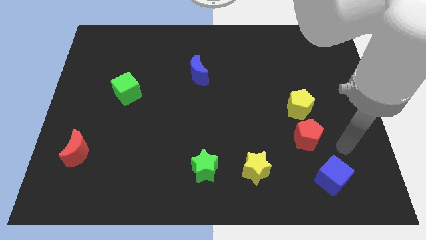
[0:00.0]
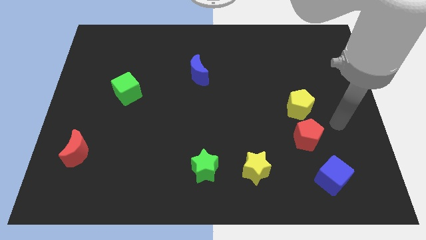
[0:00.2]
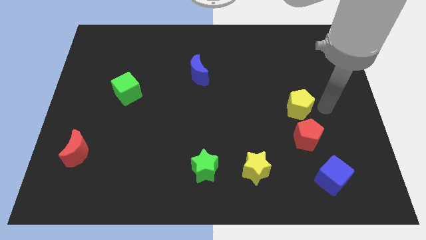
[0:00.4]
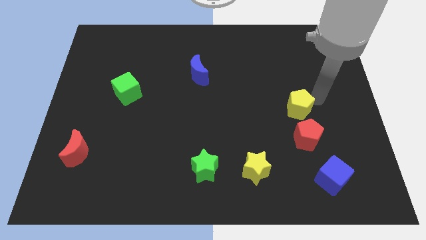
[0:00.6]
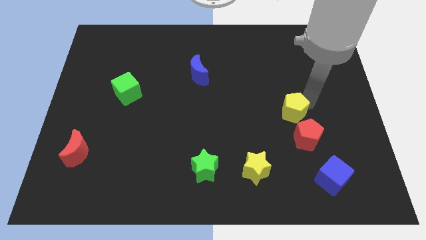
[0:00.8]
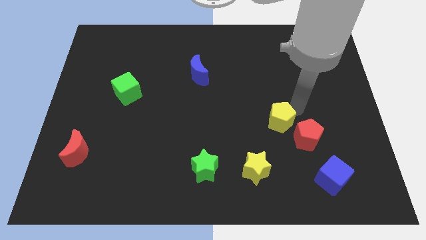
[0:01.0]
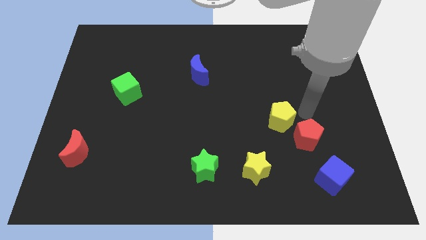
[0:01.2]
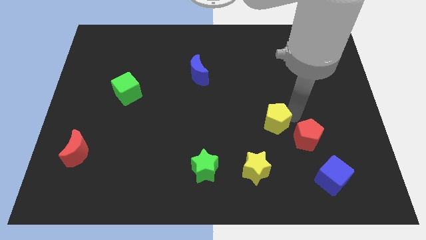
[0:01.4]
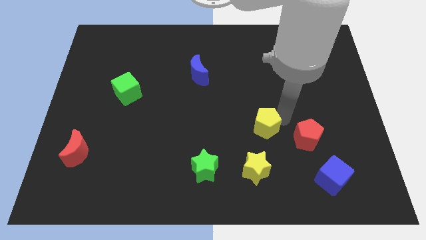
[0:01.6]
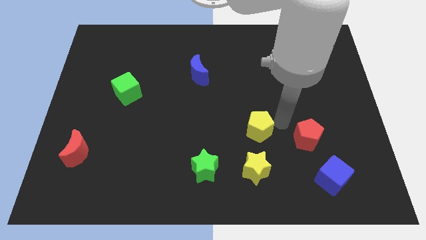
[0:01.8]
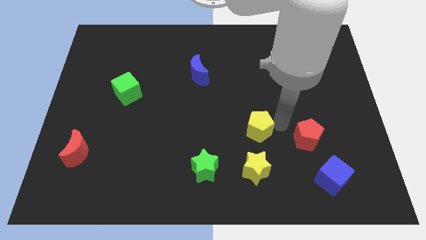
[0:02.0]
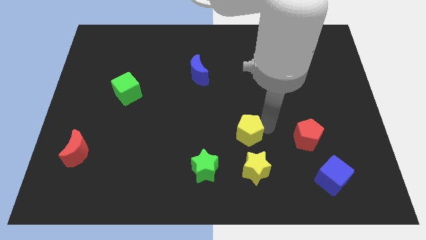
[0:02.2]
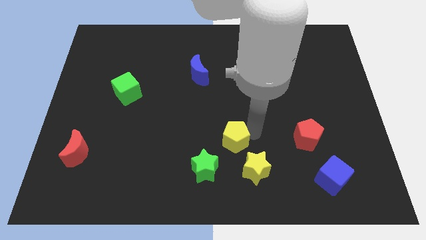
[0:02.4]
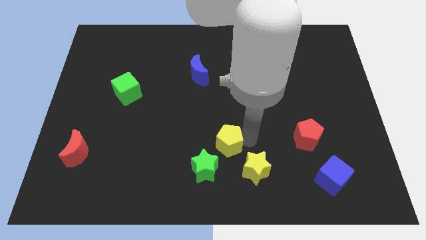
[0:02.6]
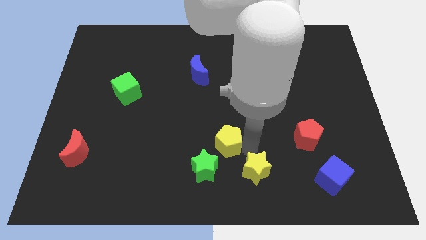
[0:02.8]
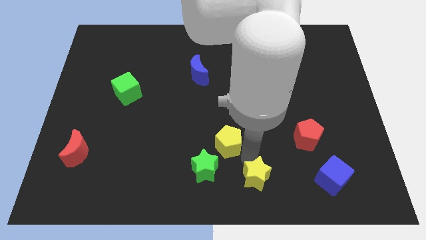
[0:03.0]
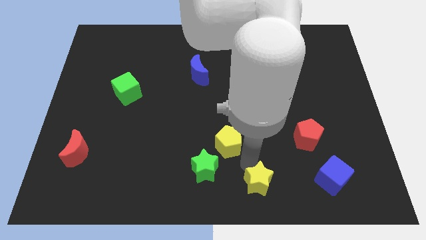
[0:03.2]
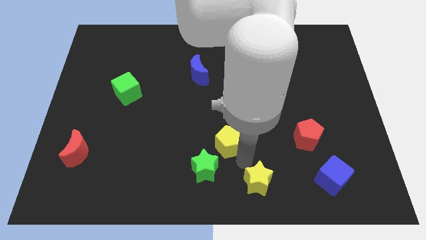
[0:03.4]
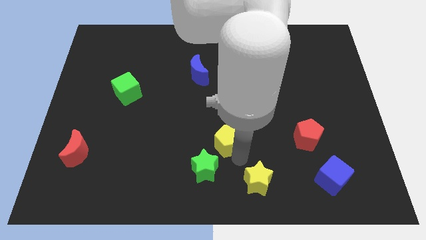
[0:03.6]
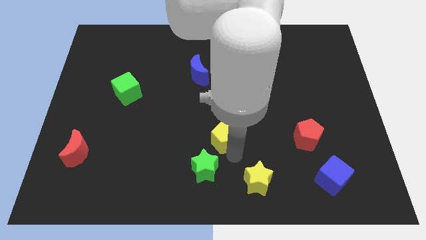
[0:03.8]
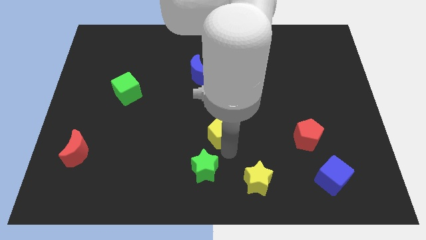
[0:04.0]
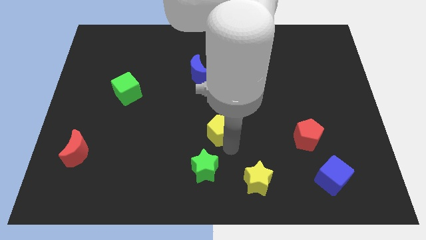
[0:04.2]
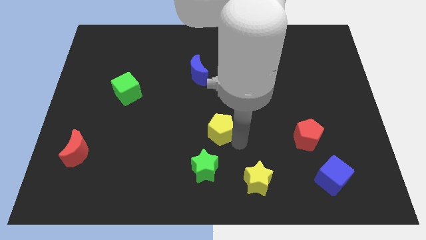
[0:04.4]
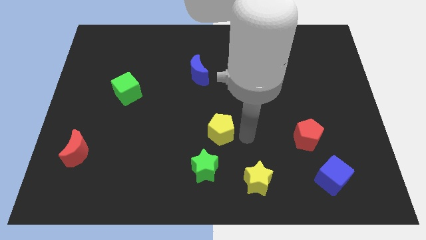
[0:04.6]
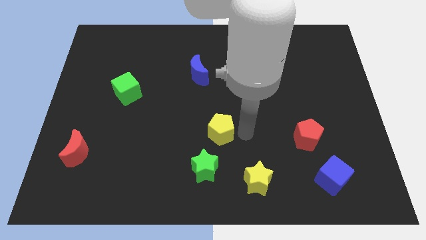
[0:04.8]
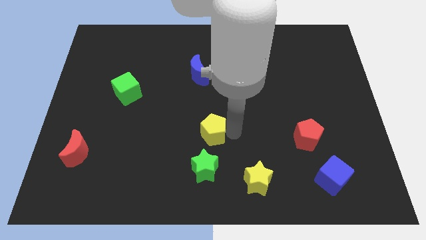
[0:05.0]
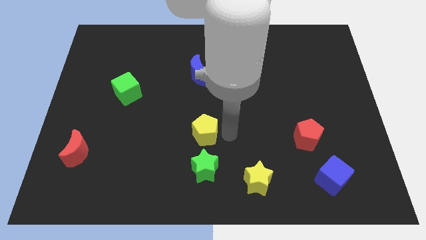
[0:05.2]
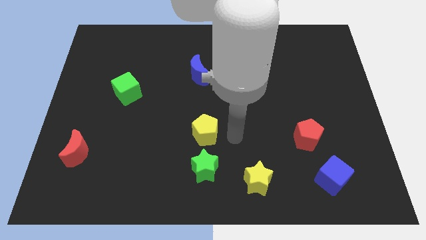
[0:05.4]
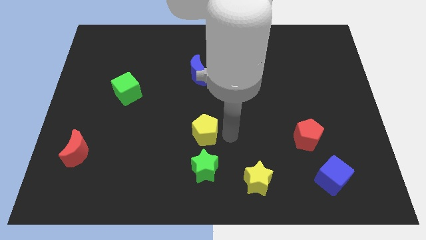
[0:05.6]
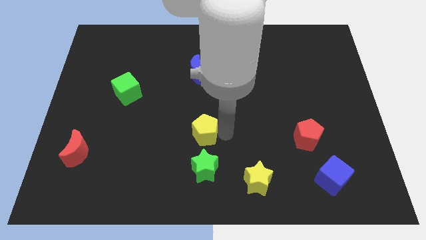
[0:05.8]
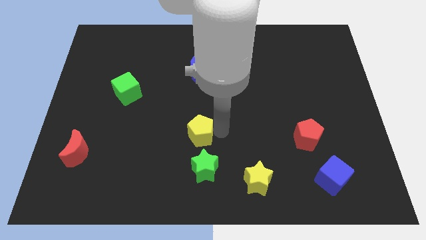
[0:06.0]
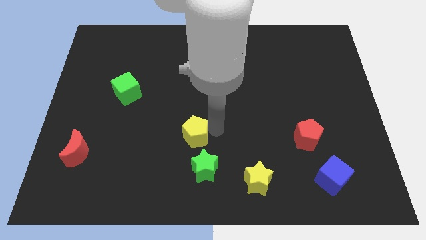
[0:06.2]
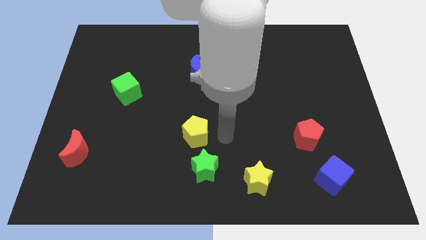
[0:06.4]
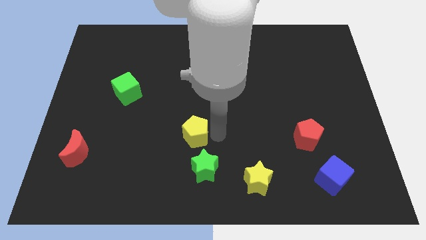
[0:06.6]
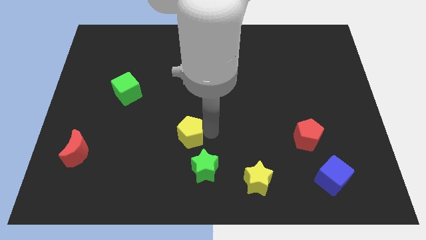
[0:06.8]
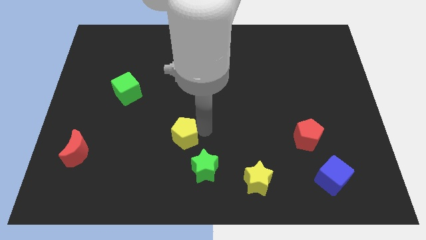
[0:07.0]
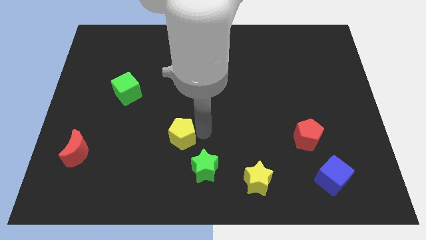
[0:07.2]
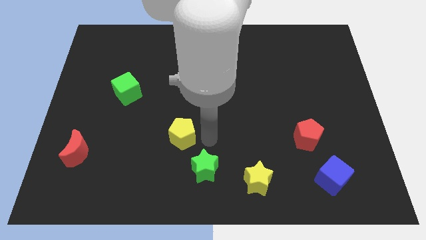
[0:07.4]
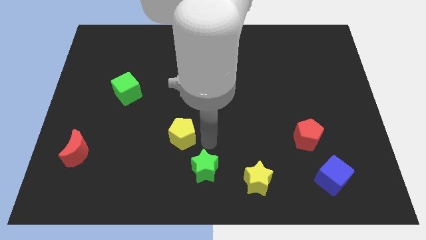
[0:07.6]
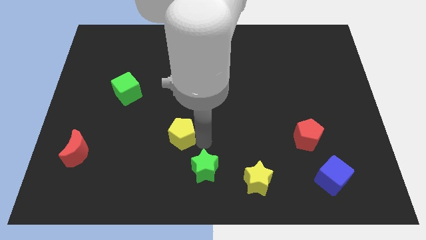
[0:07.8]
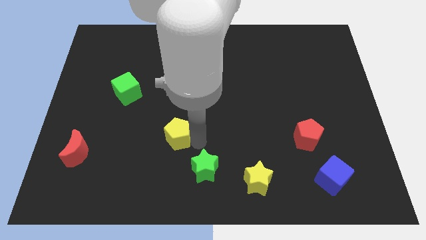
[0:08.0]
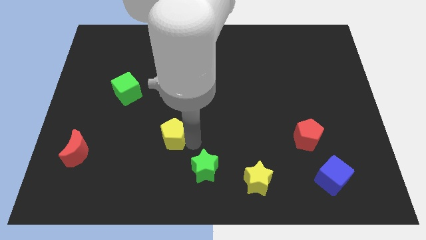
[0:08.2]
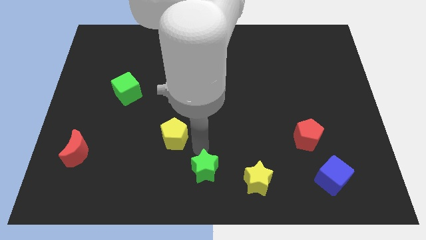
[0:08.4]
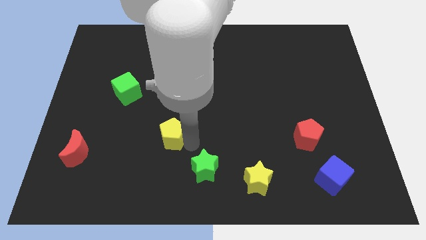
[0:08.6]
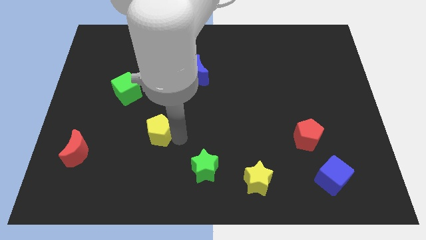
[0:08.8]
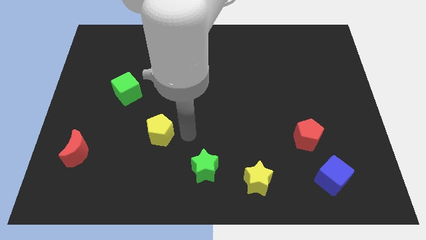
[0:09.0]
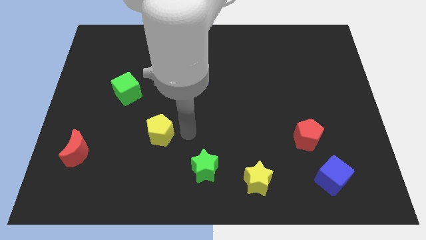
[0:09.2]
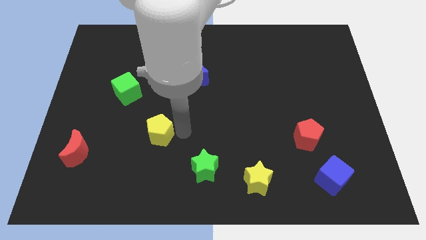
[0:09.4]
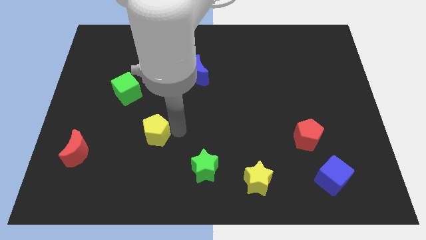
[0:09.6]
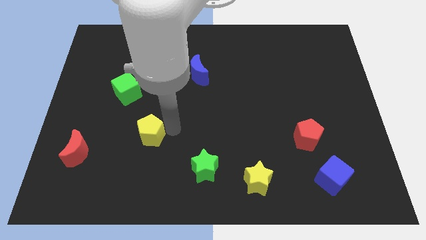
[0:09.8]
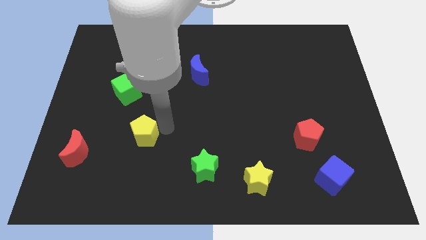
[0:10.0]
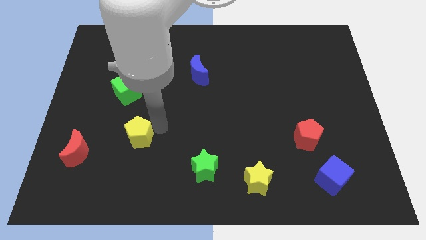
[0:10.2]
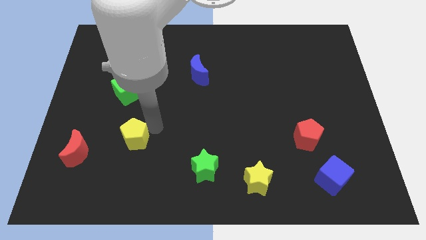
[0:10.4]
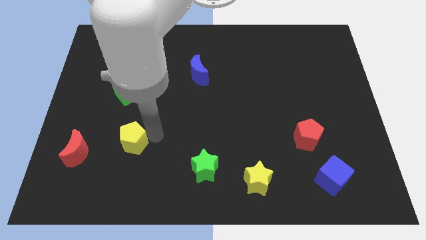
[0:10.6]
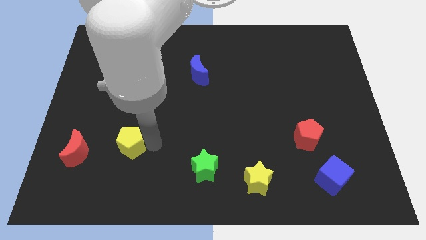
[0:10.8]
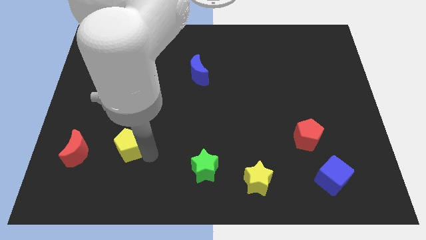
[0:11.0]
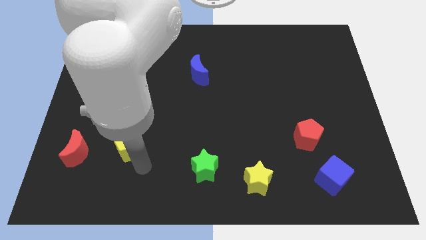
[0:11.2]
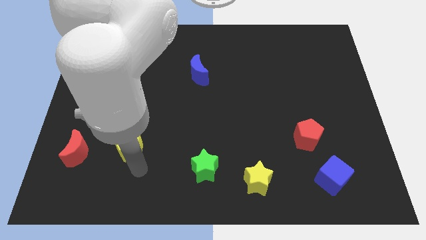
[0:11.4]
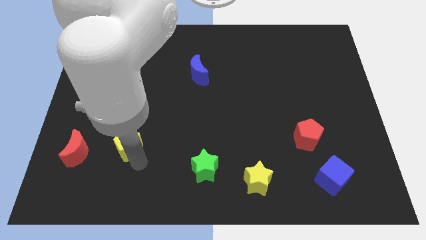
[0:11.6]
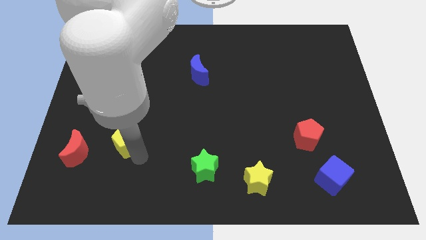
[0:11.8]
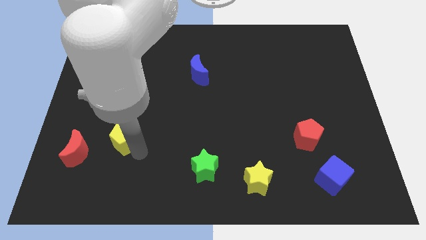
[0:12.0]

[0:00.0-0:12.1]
move the yellow pentagon to the top right of the red moon

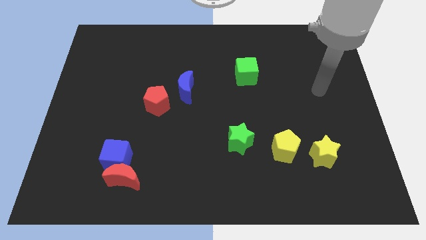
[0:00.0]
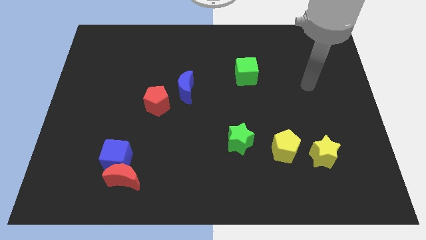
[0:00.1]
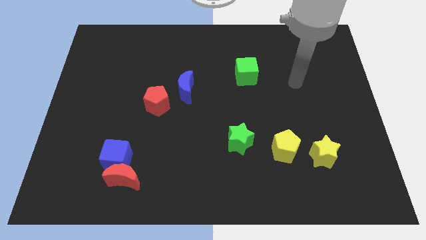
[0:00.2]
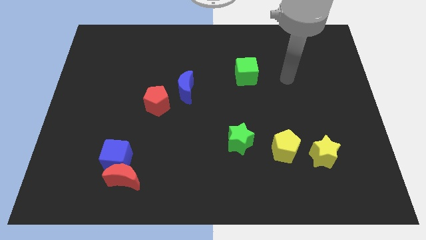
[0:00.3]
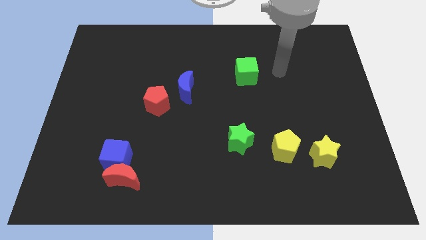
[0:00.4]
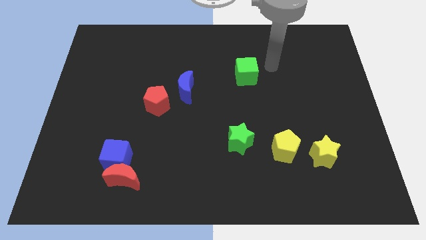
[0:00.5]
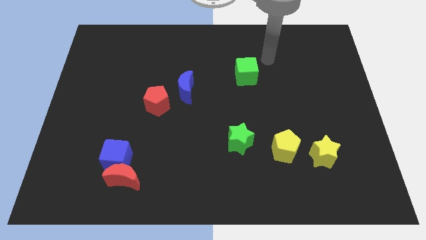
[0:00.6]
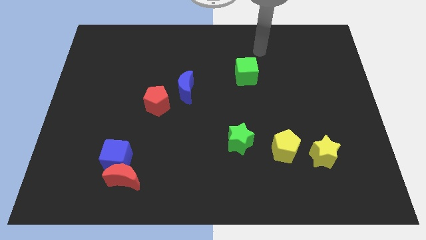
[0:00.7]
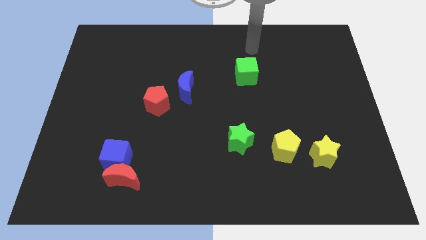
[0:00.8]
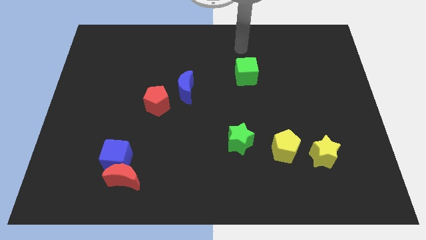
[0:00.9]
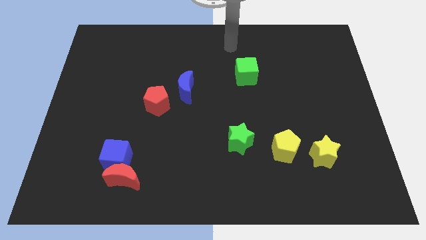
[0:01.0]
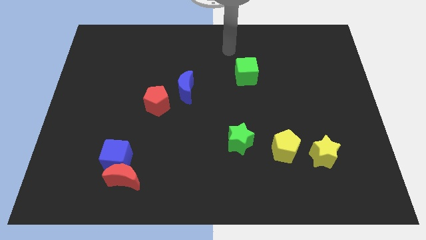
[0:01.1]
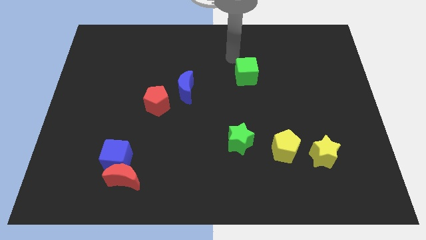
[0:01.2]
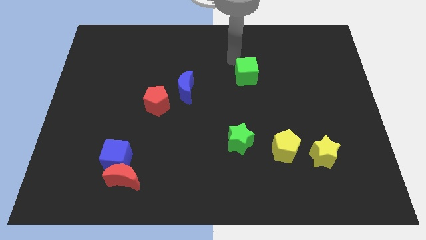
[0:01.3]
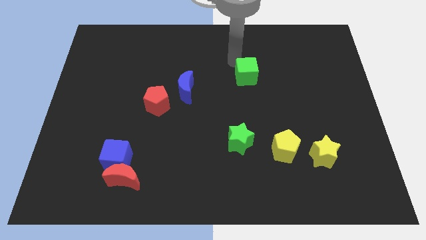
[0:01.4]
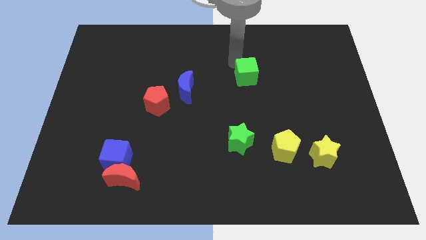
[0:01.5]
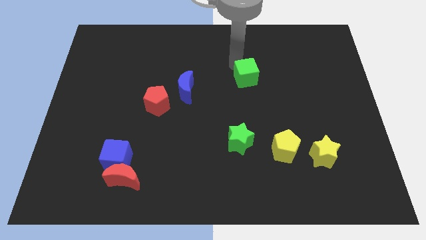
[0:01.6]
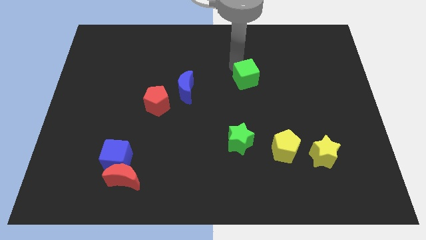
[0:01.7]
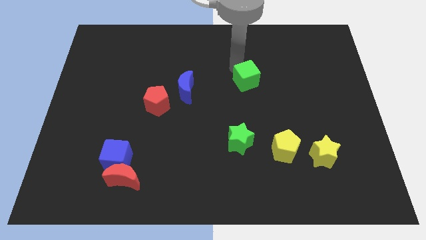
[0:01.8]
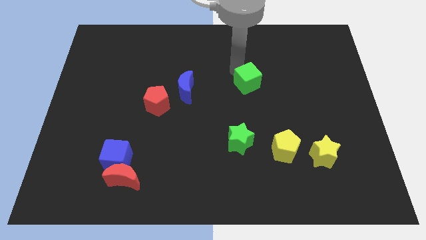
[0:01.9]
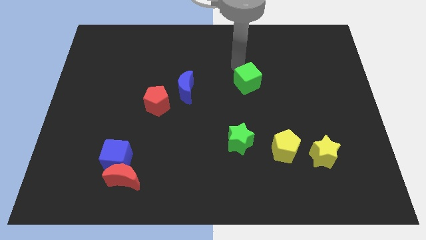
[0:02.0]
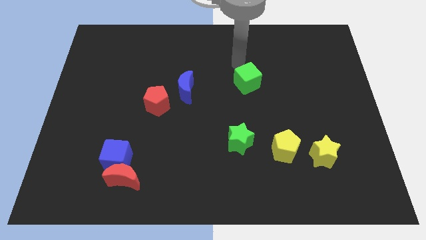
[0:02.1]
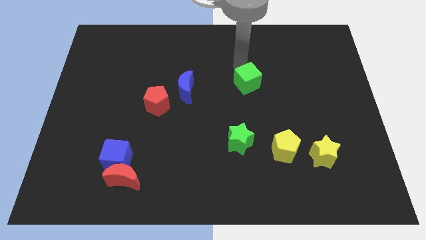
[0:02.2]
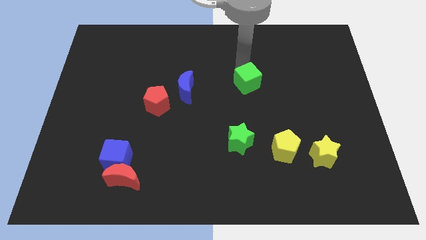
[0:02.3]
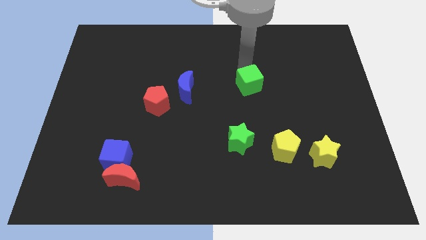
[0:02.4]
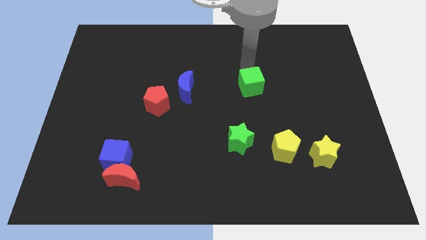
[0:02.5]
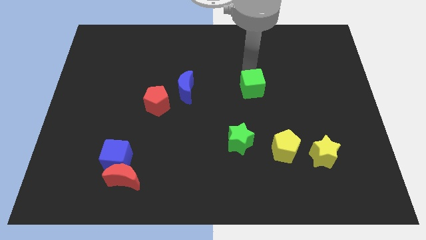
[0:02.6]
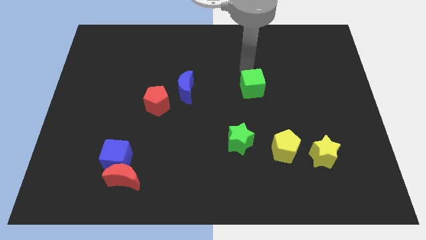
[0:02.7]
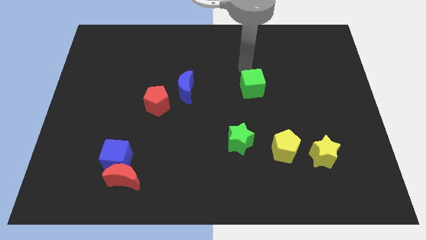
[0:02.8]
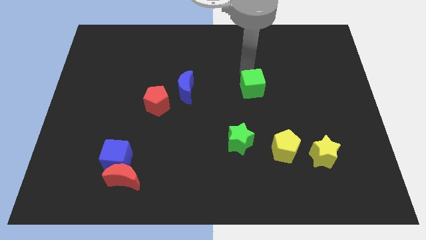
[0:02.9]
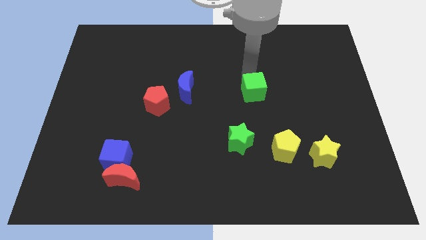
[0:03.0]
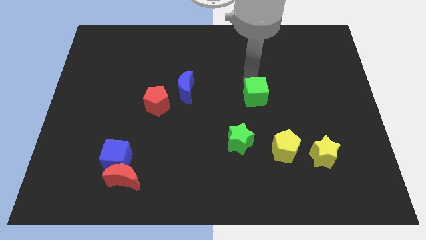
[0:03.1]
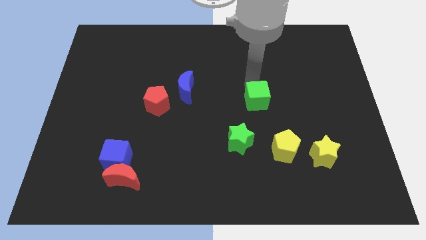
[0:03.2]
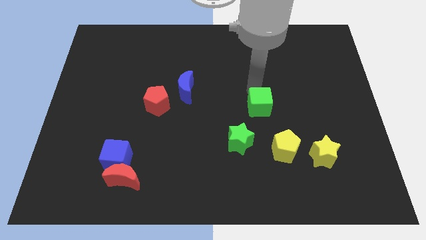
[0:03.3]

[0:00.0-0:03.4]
slide the green cube diagonally up and to the right of the green star
